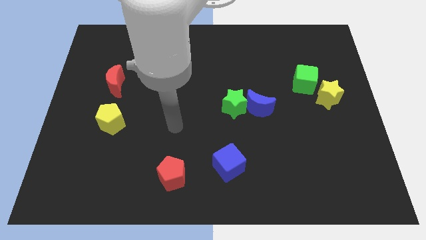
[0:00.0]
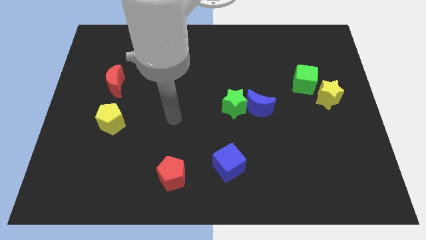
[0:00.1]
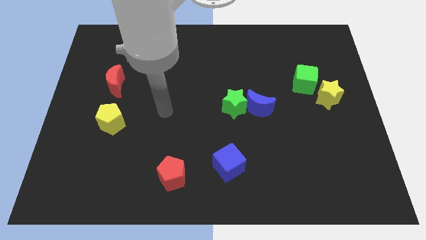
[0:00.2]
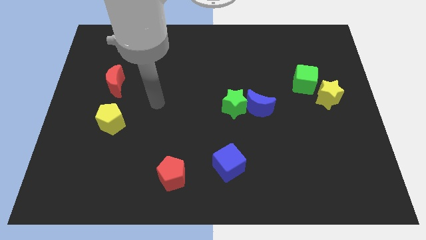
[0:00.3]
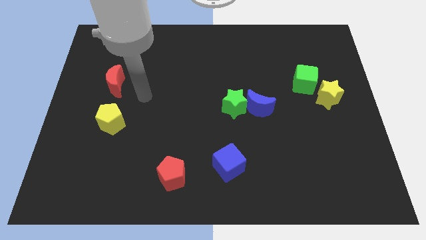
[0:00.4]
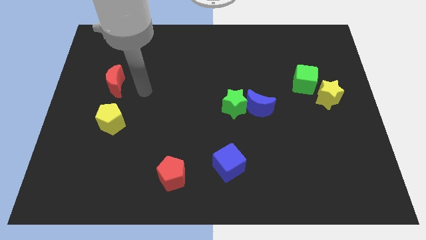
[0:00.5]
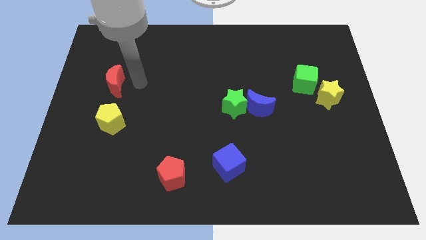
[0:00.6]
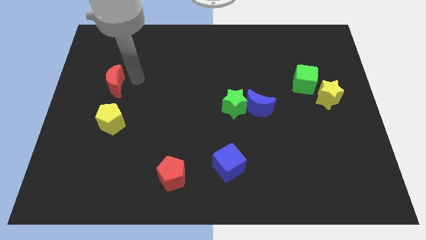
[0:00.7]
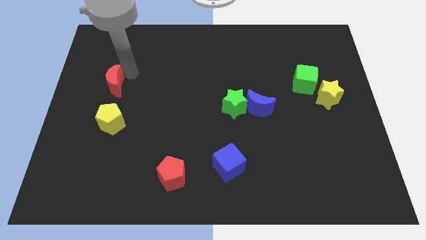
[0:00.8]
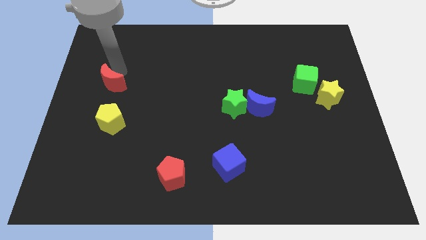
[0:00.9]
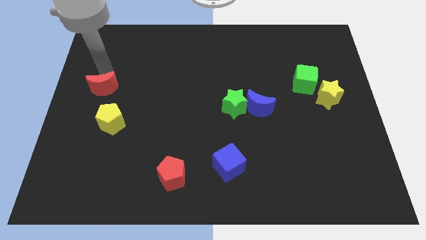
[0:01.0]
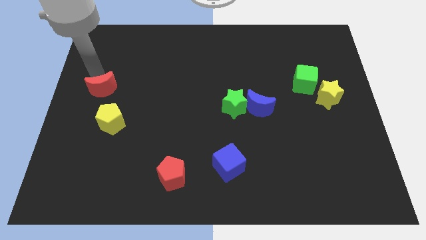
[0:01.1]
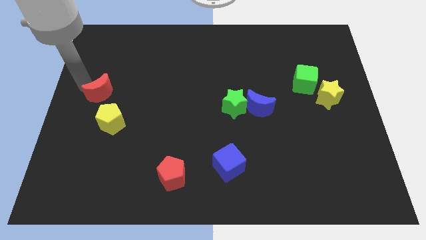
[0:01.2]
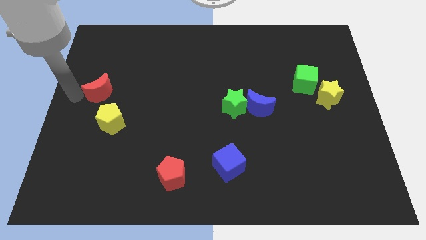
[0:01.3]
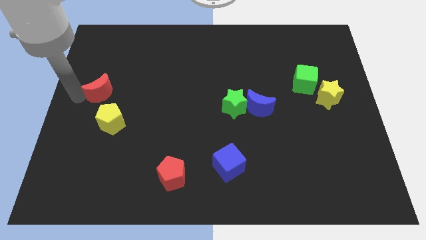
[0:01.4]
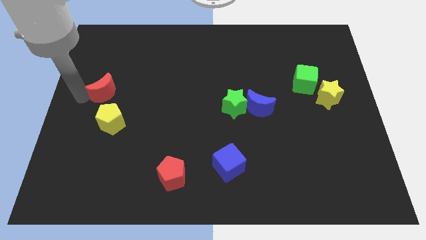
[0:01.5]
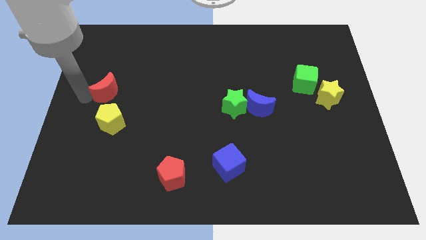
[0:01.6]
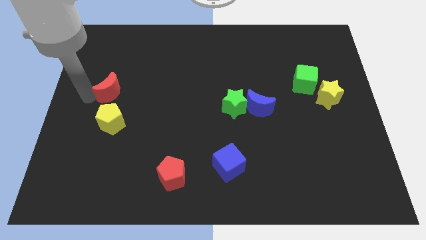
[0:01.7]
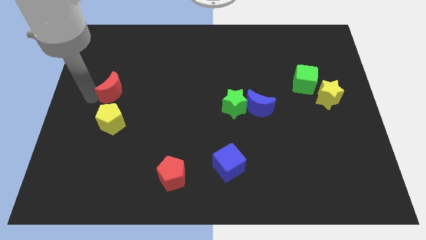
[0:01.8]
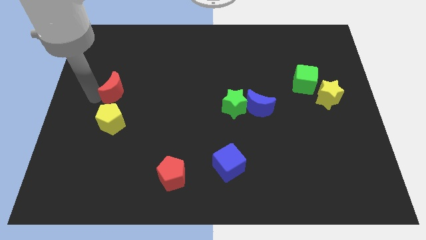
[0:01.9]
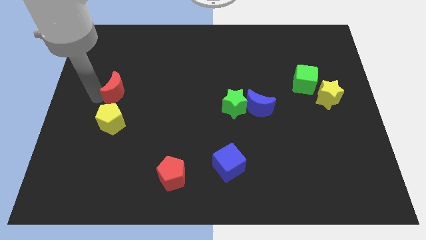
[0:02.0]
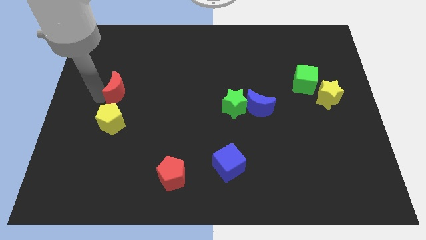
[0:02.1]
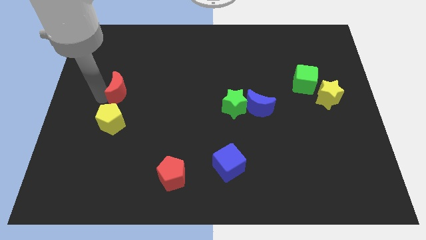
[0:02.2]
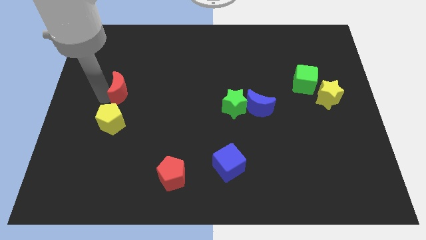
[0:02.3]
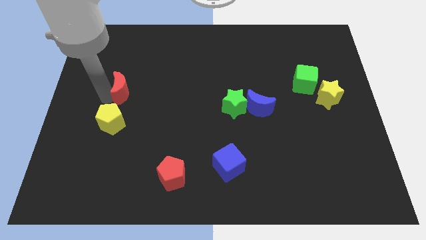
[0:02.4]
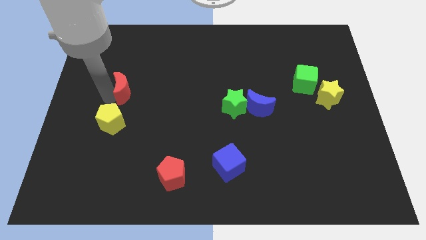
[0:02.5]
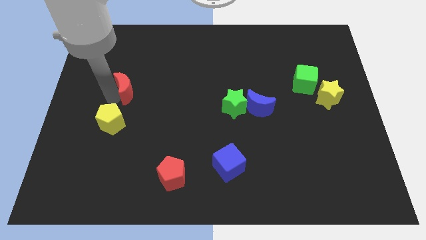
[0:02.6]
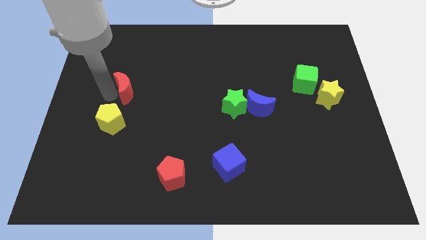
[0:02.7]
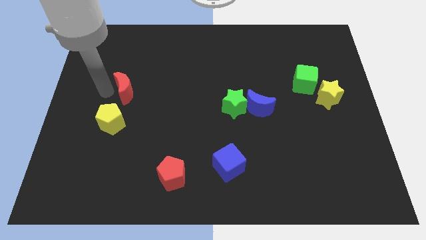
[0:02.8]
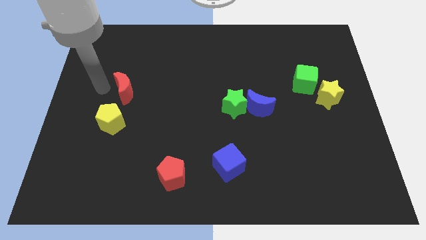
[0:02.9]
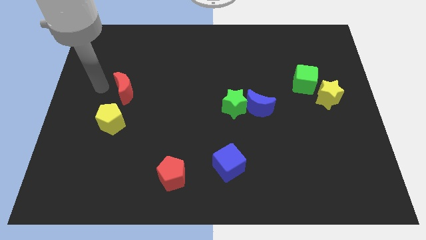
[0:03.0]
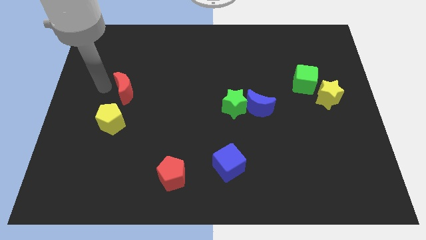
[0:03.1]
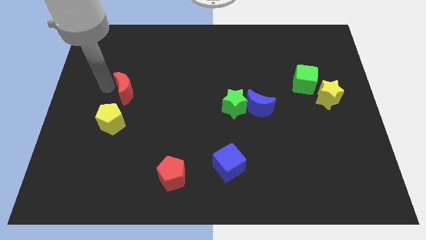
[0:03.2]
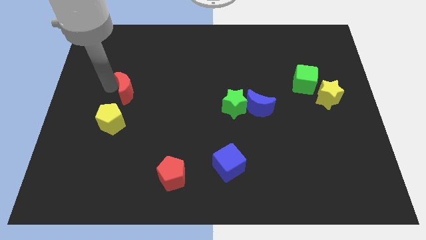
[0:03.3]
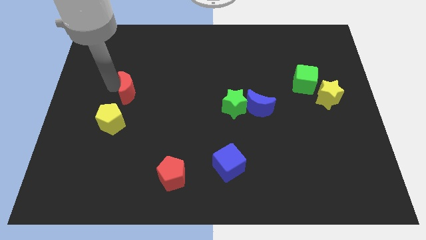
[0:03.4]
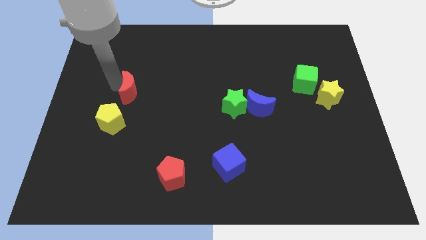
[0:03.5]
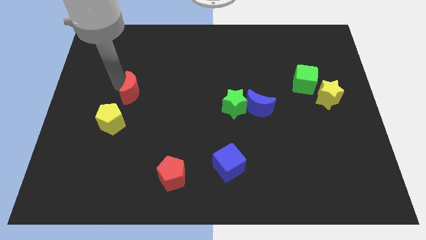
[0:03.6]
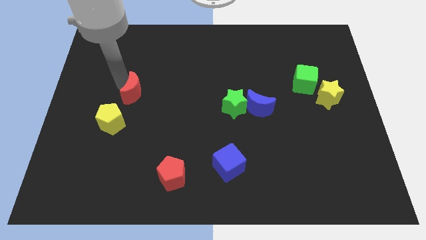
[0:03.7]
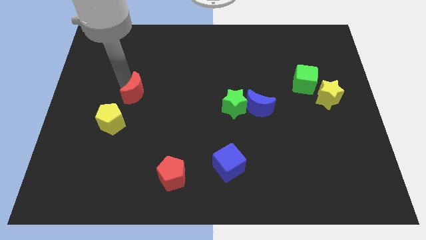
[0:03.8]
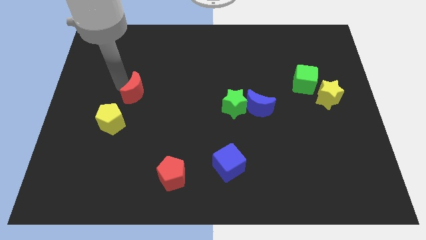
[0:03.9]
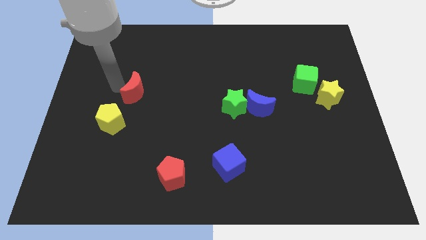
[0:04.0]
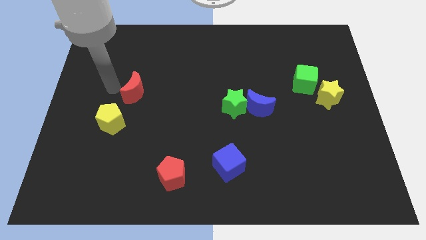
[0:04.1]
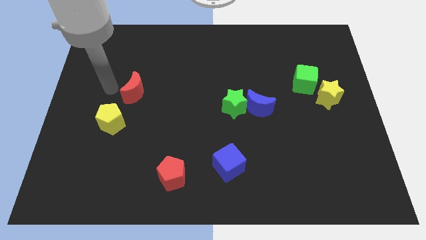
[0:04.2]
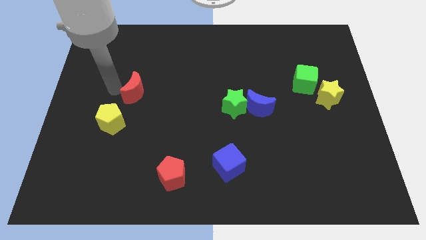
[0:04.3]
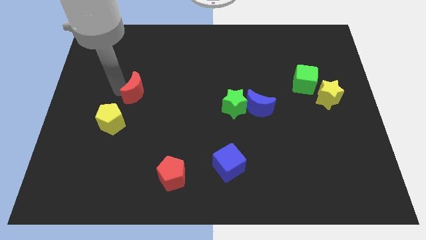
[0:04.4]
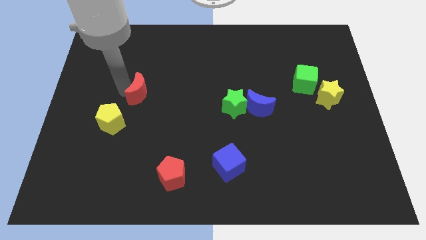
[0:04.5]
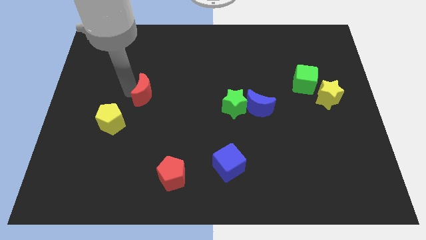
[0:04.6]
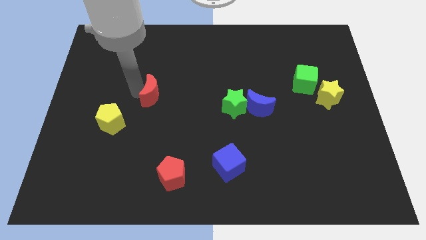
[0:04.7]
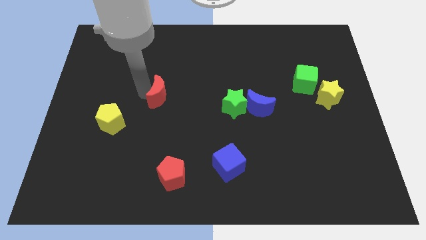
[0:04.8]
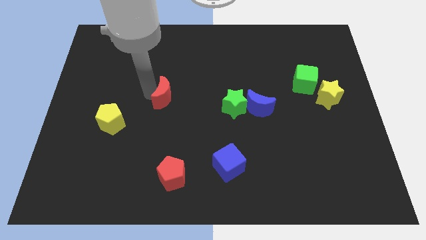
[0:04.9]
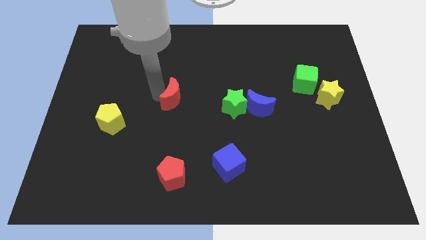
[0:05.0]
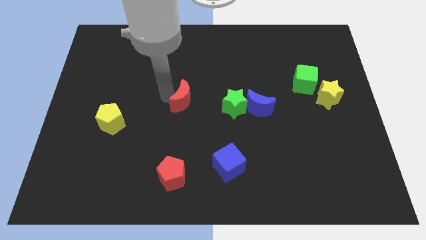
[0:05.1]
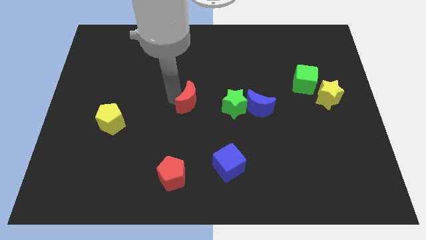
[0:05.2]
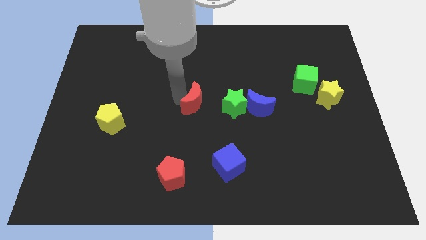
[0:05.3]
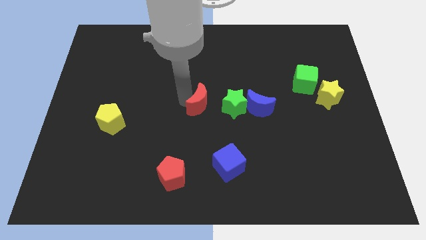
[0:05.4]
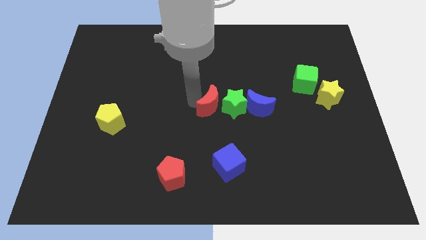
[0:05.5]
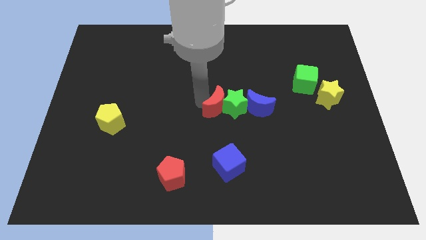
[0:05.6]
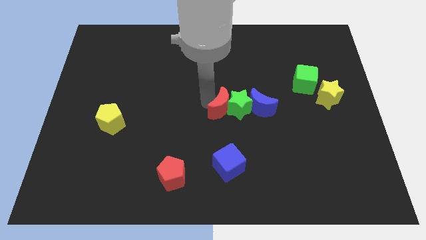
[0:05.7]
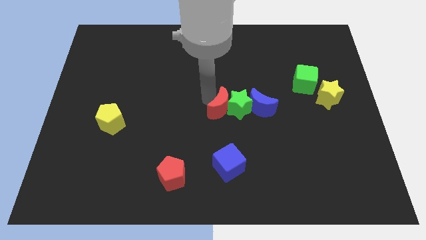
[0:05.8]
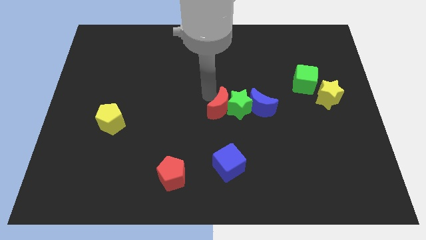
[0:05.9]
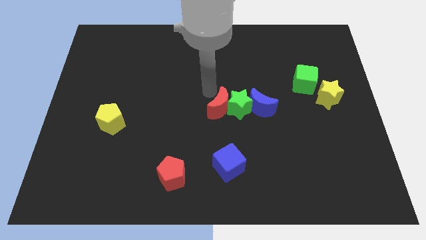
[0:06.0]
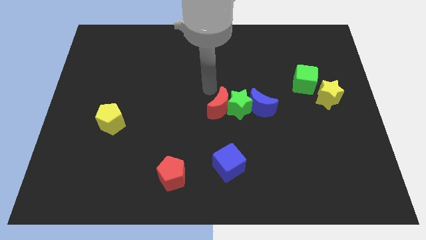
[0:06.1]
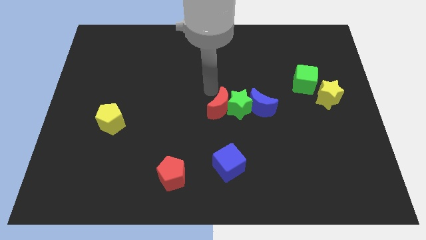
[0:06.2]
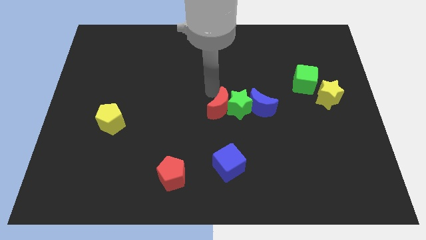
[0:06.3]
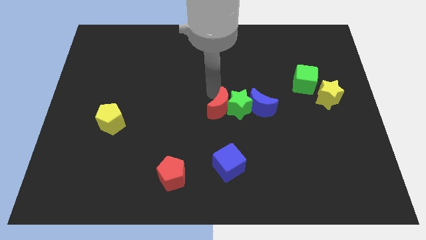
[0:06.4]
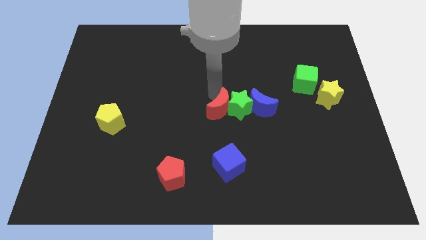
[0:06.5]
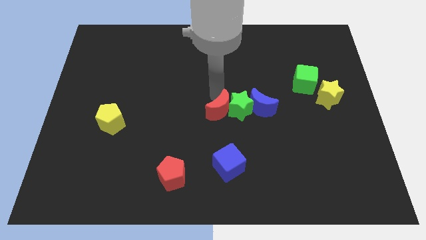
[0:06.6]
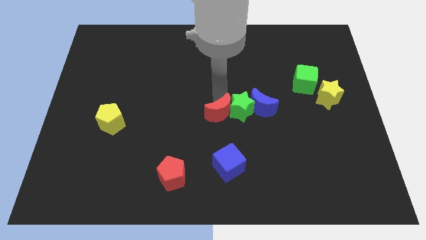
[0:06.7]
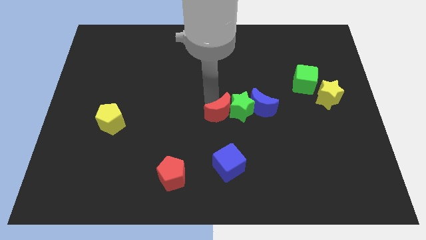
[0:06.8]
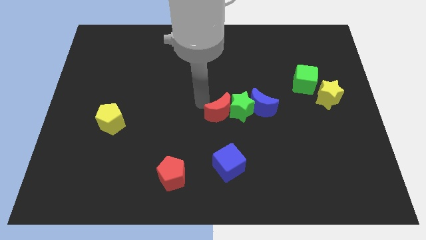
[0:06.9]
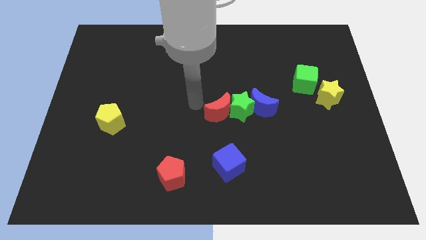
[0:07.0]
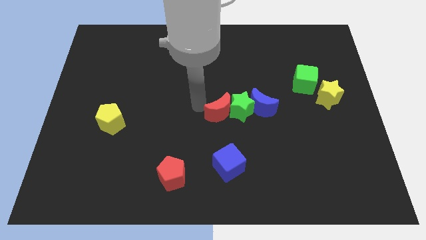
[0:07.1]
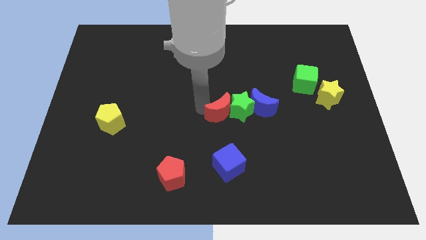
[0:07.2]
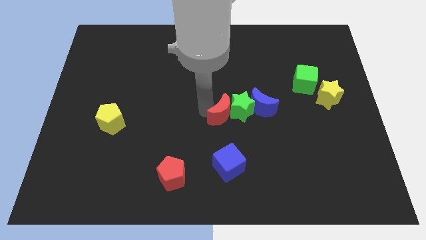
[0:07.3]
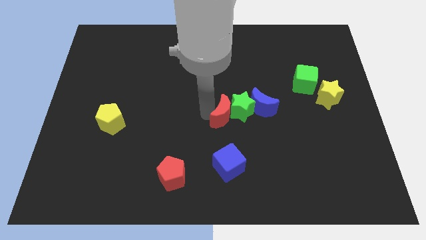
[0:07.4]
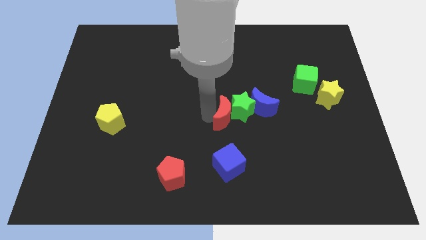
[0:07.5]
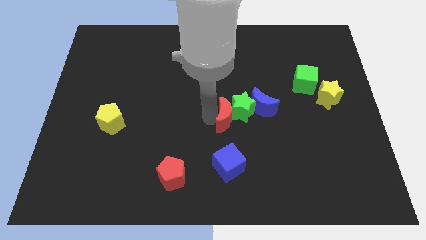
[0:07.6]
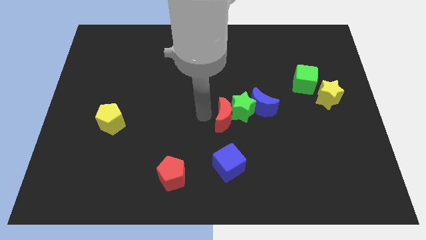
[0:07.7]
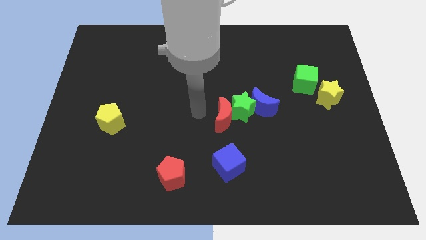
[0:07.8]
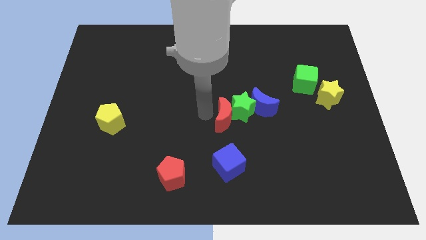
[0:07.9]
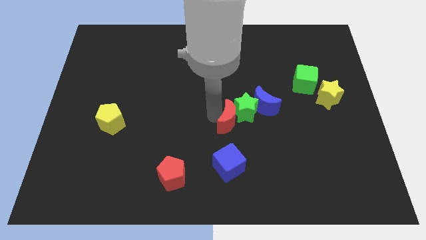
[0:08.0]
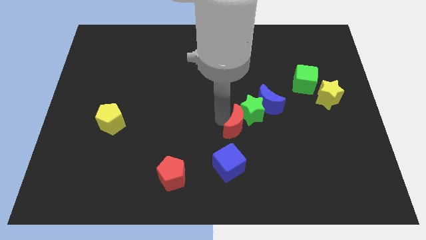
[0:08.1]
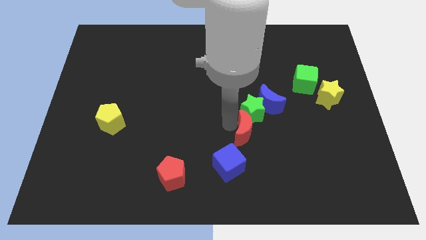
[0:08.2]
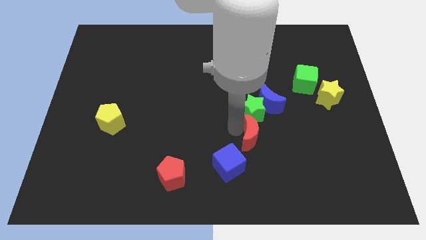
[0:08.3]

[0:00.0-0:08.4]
push the red moon diagonally down and to the right of the green star
